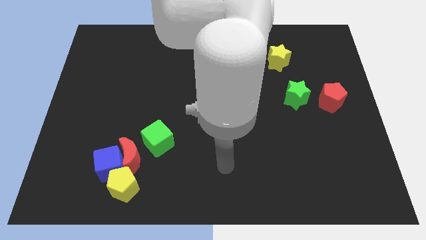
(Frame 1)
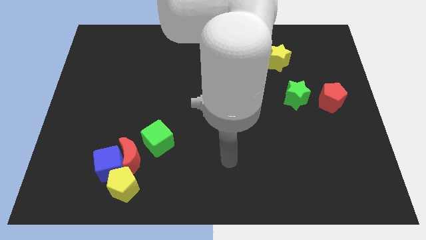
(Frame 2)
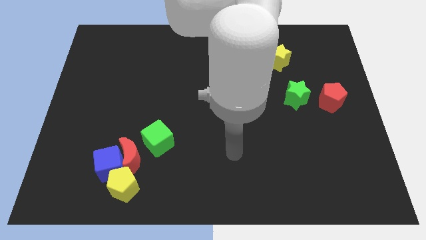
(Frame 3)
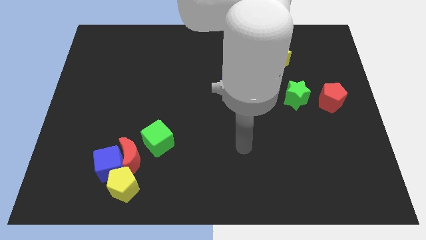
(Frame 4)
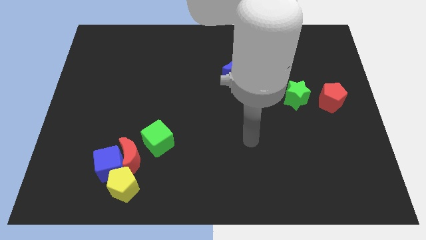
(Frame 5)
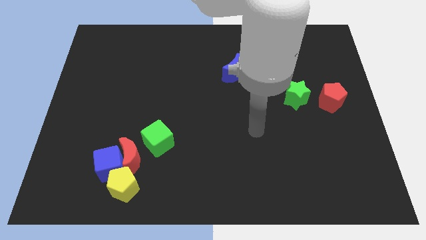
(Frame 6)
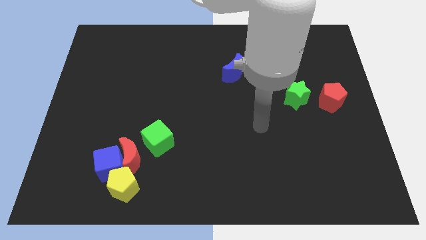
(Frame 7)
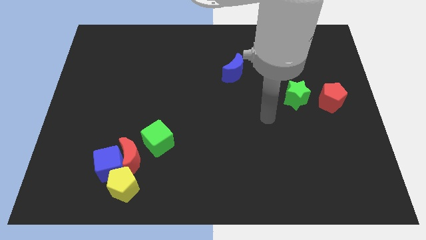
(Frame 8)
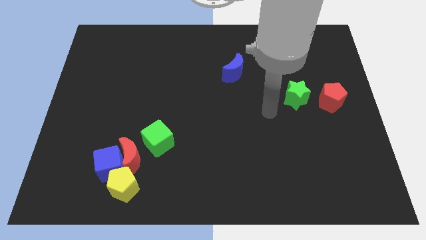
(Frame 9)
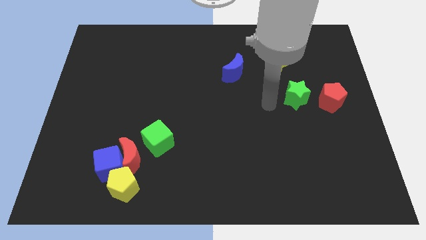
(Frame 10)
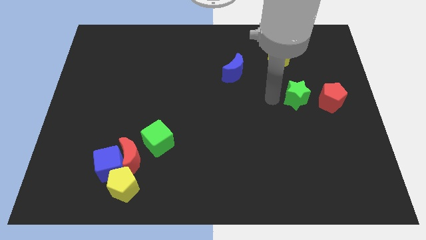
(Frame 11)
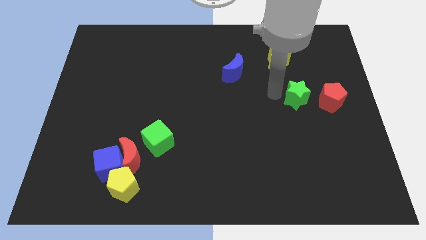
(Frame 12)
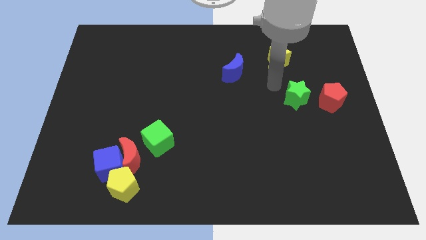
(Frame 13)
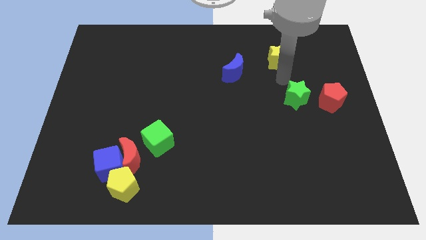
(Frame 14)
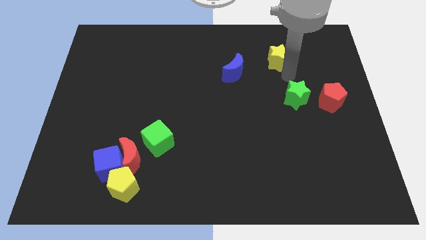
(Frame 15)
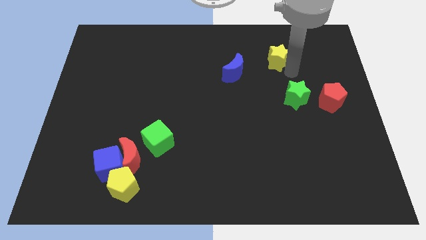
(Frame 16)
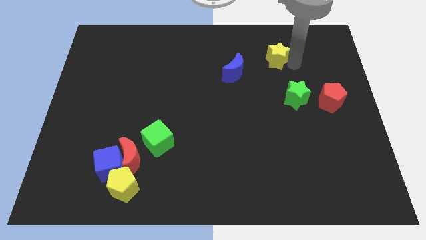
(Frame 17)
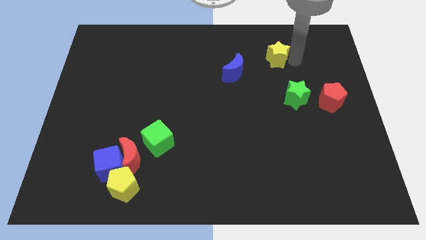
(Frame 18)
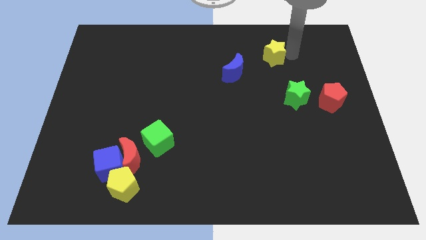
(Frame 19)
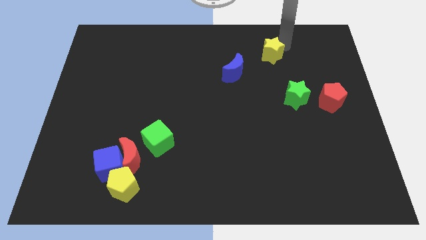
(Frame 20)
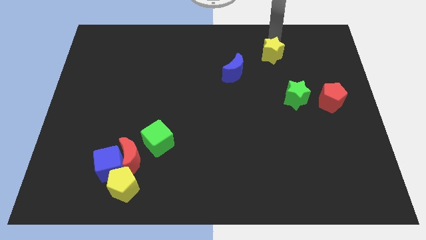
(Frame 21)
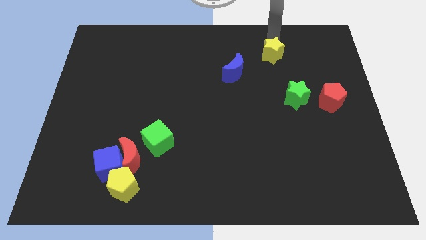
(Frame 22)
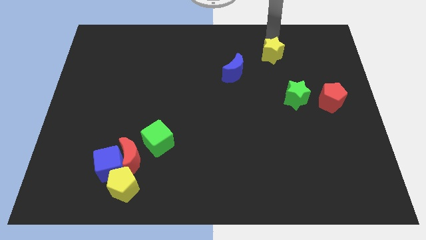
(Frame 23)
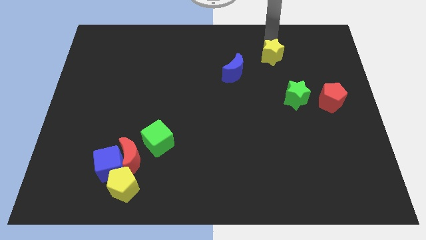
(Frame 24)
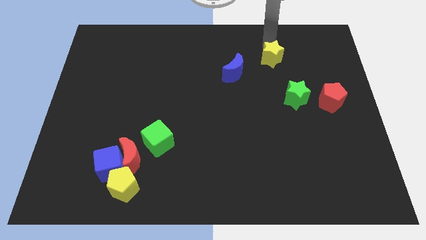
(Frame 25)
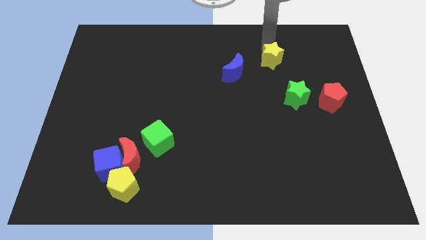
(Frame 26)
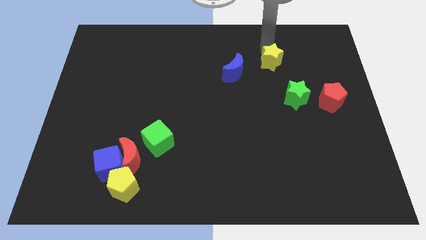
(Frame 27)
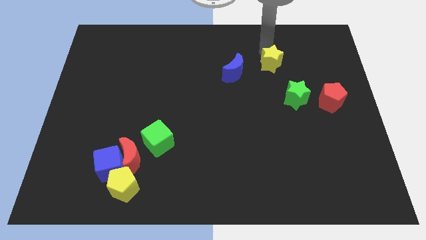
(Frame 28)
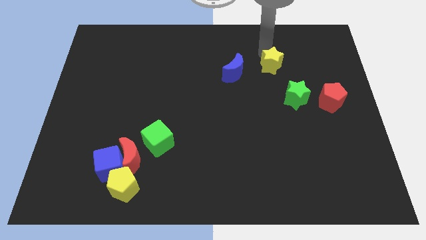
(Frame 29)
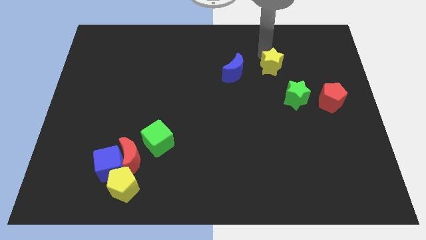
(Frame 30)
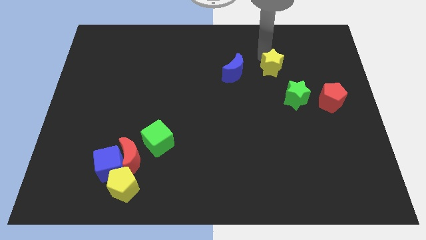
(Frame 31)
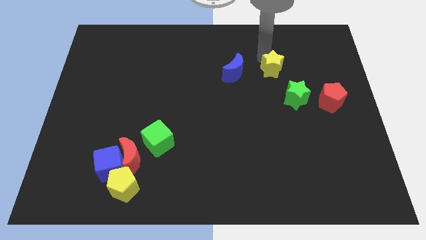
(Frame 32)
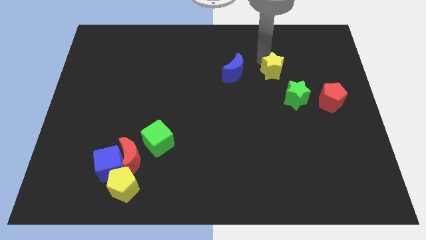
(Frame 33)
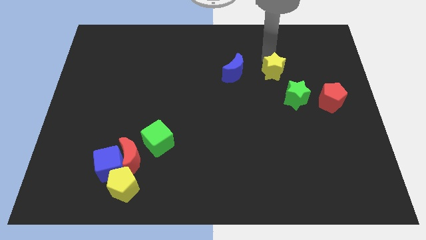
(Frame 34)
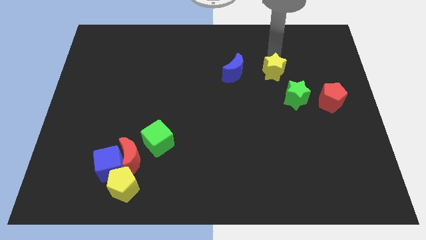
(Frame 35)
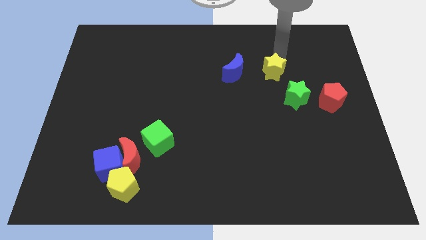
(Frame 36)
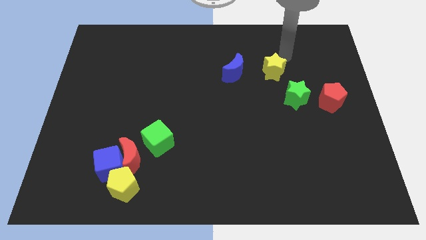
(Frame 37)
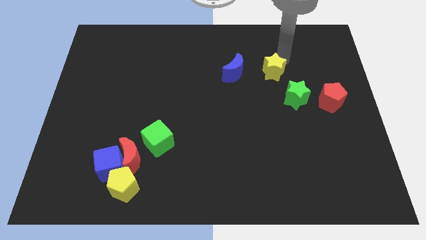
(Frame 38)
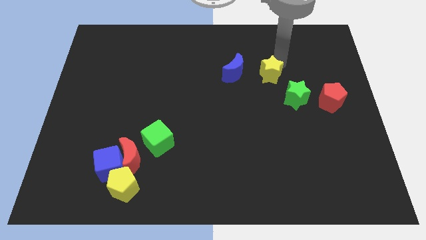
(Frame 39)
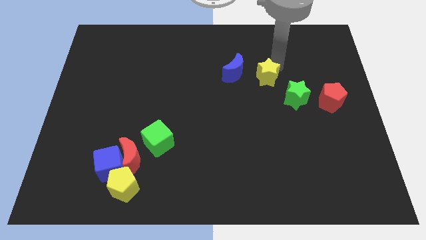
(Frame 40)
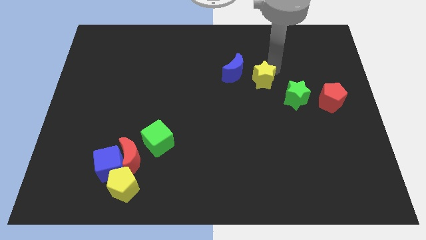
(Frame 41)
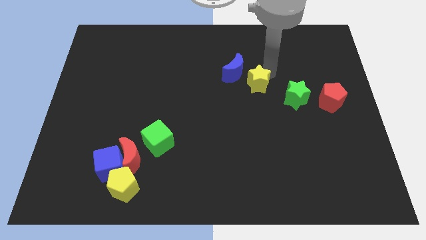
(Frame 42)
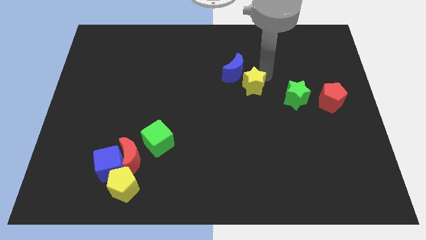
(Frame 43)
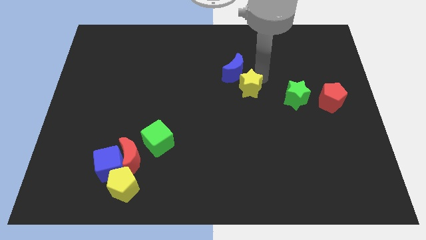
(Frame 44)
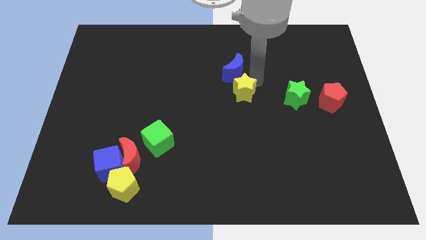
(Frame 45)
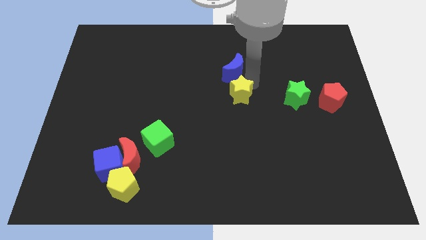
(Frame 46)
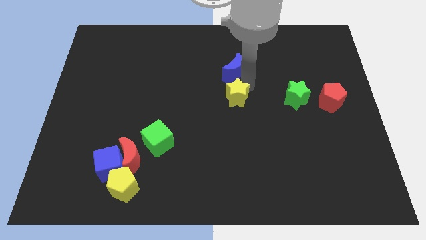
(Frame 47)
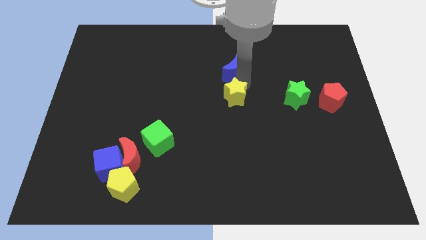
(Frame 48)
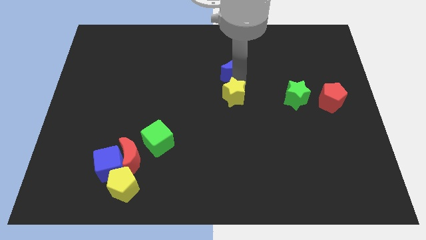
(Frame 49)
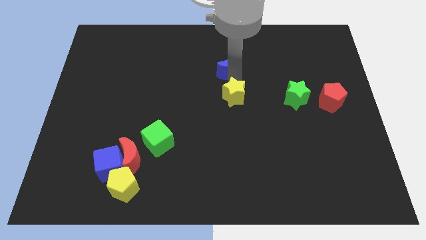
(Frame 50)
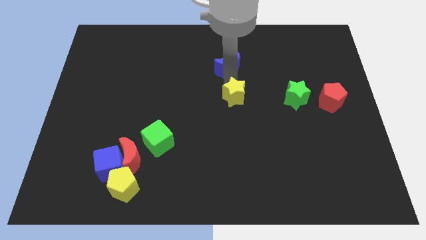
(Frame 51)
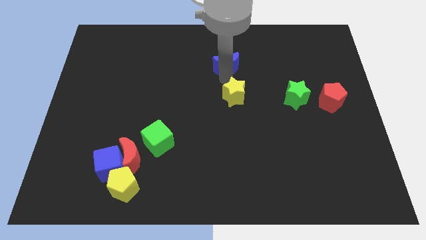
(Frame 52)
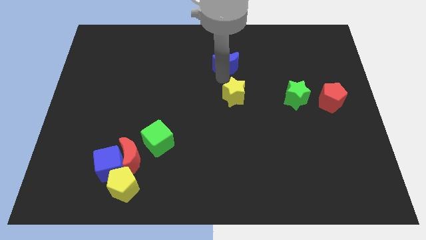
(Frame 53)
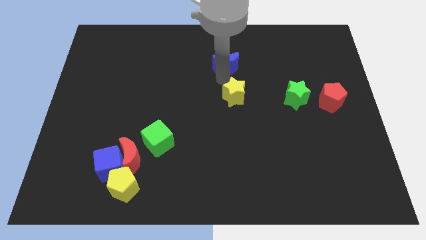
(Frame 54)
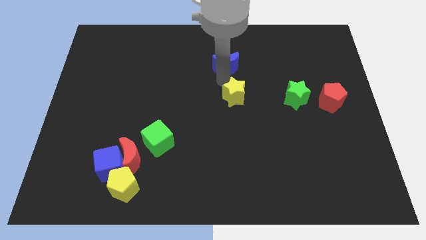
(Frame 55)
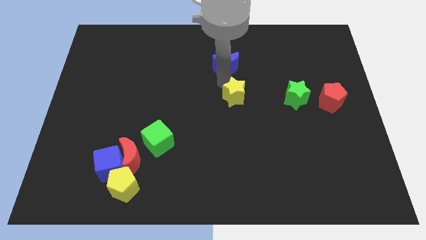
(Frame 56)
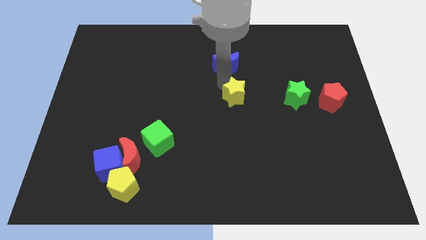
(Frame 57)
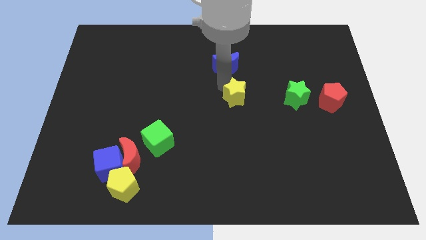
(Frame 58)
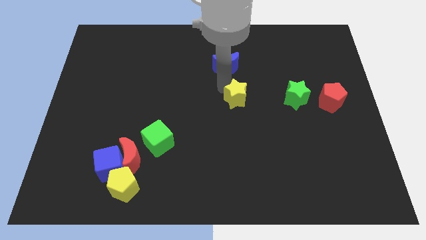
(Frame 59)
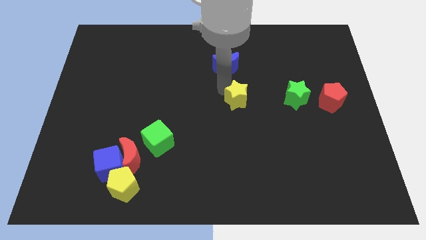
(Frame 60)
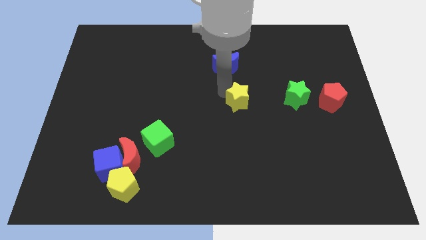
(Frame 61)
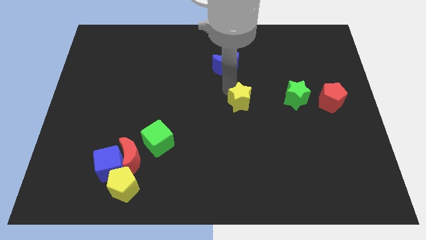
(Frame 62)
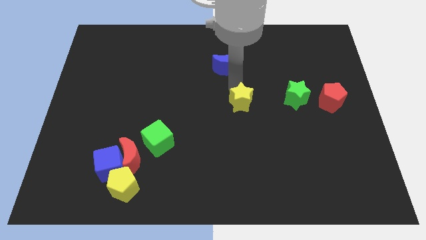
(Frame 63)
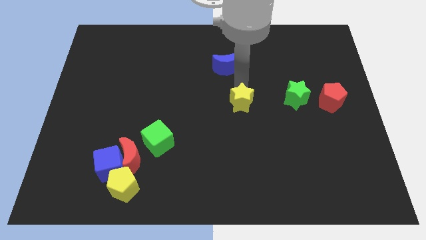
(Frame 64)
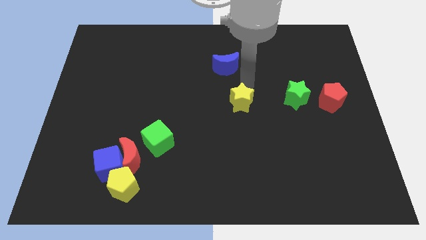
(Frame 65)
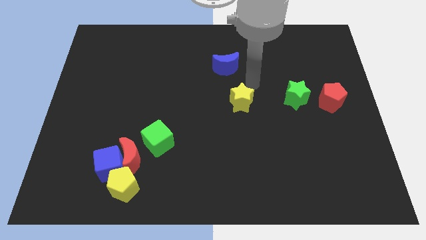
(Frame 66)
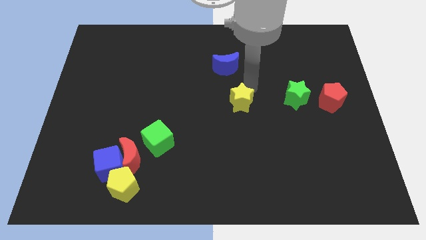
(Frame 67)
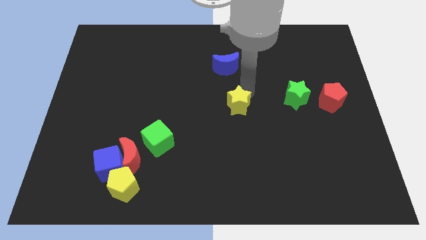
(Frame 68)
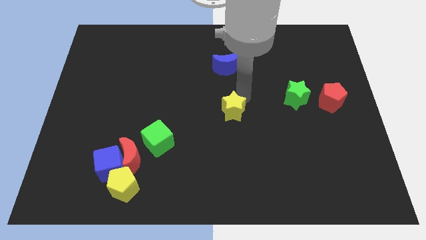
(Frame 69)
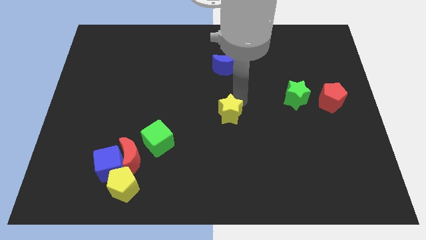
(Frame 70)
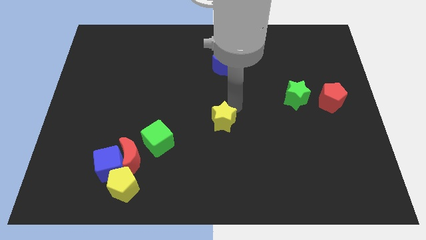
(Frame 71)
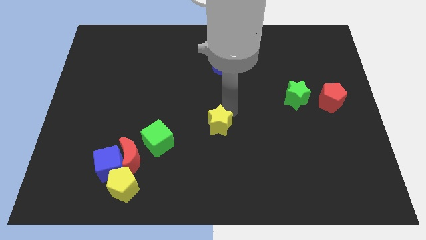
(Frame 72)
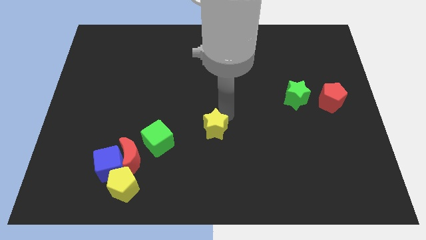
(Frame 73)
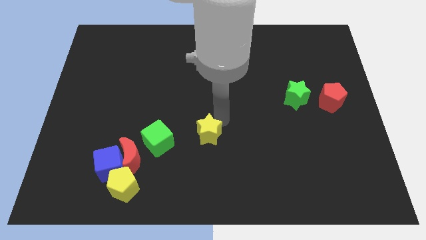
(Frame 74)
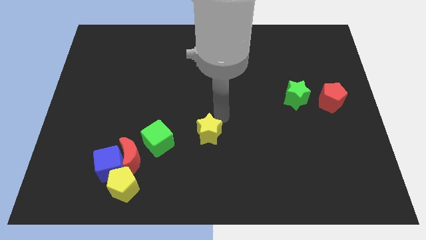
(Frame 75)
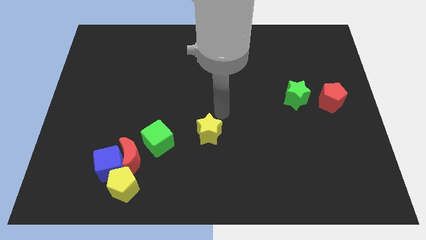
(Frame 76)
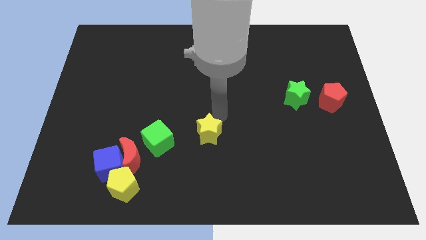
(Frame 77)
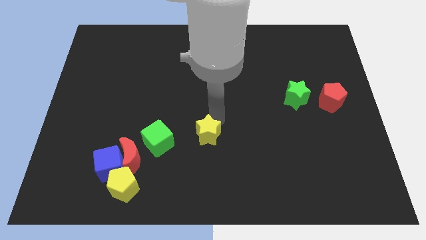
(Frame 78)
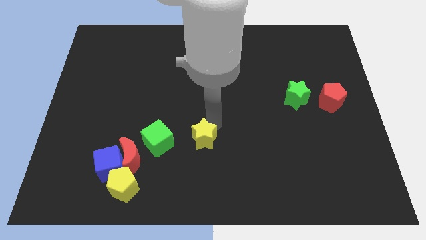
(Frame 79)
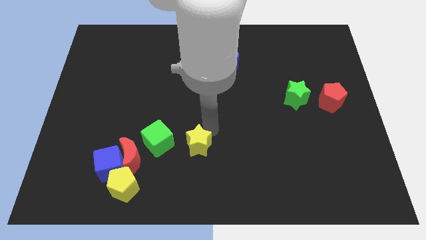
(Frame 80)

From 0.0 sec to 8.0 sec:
slide the yellow star to the right of the red moon
